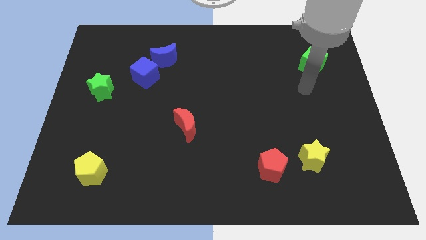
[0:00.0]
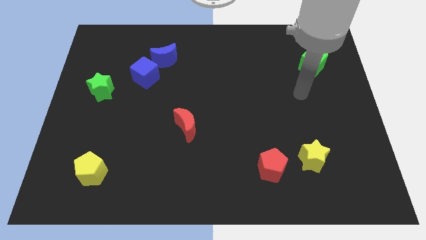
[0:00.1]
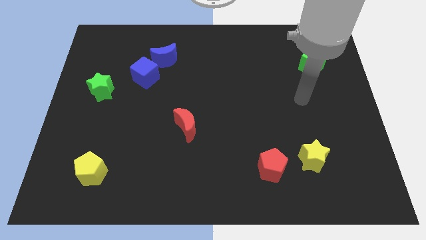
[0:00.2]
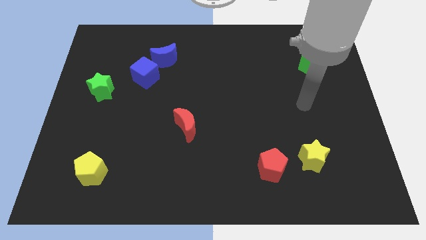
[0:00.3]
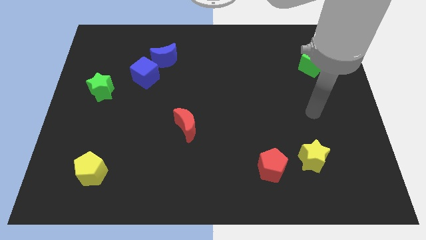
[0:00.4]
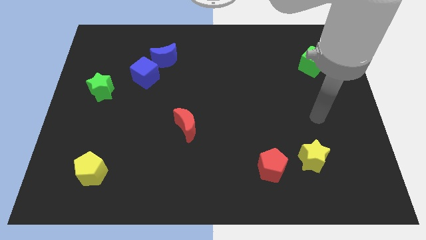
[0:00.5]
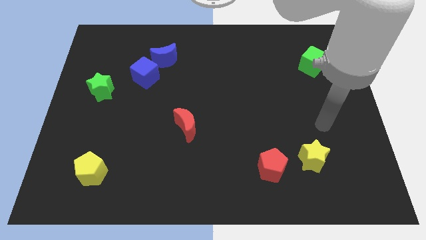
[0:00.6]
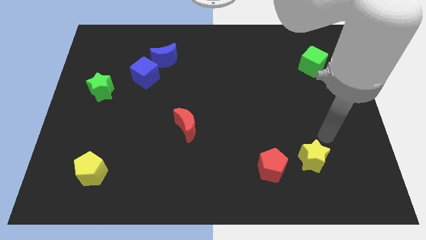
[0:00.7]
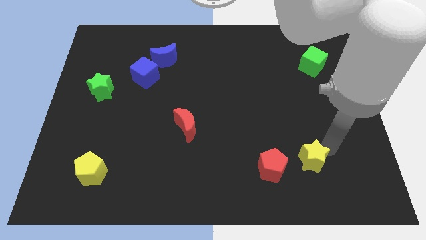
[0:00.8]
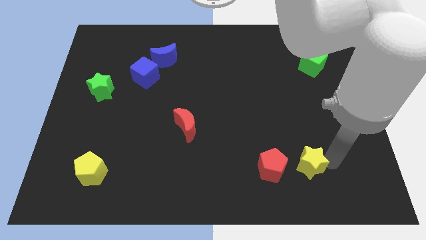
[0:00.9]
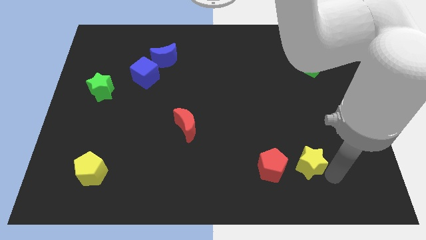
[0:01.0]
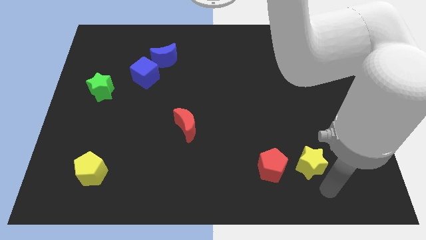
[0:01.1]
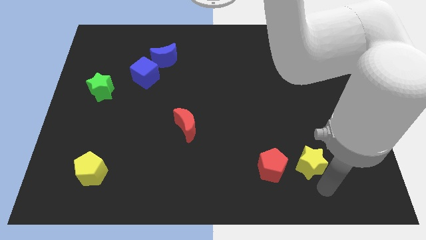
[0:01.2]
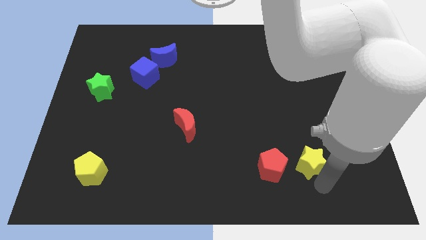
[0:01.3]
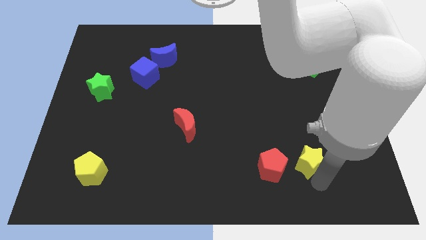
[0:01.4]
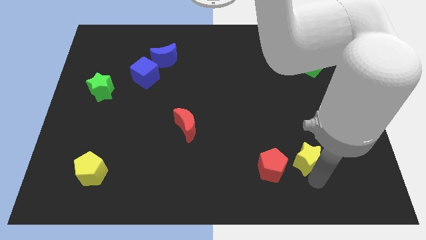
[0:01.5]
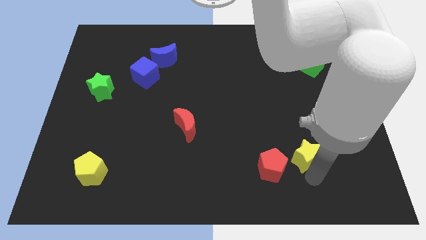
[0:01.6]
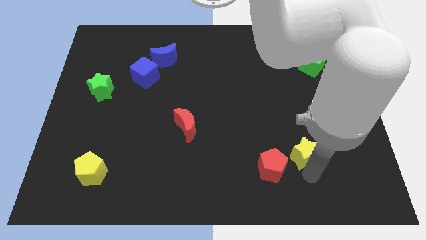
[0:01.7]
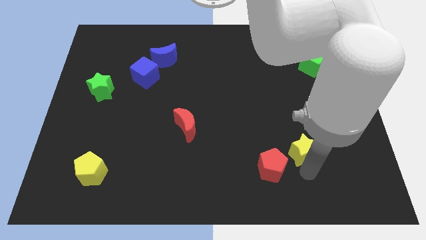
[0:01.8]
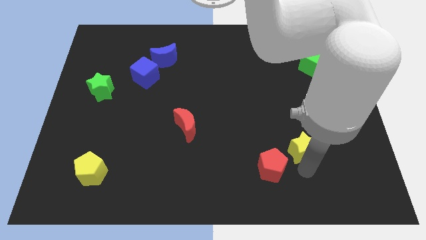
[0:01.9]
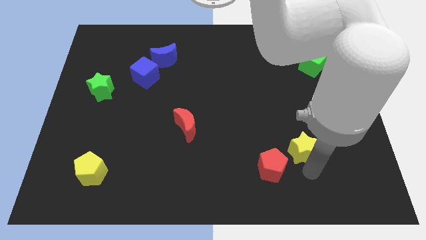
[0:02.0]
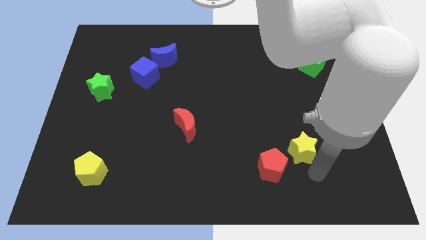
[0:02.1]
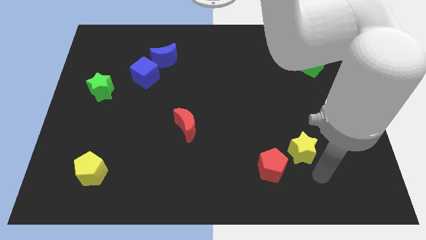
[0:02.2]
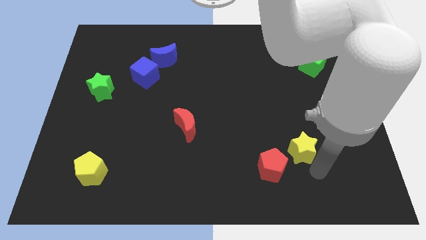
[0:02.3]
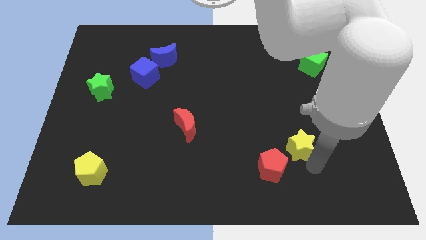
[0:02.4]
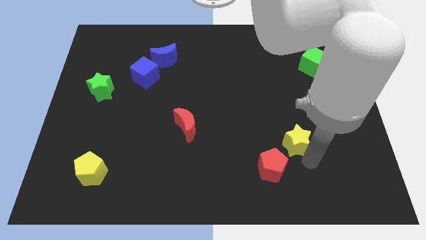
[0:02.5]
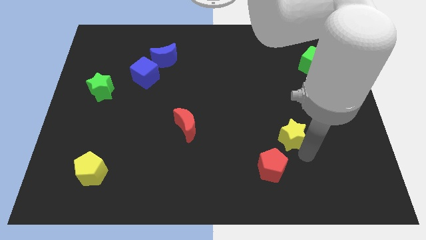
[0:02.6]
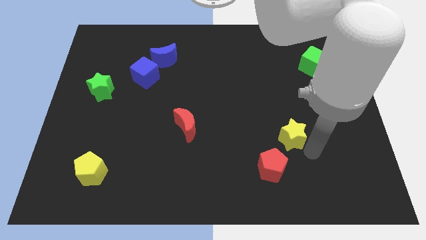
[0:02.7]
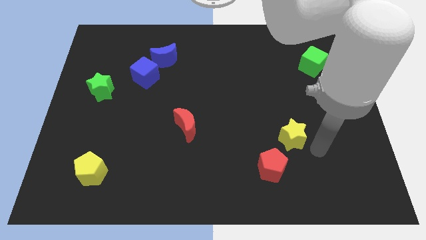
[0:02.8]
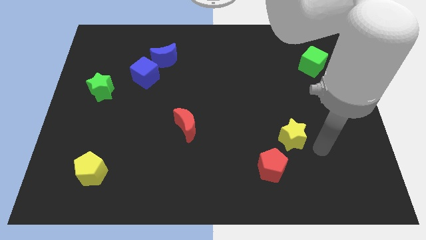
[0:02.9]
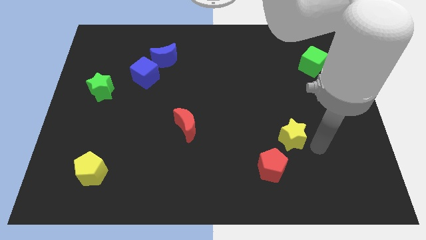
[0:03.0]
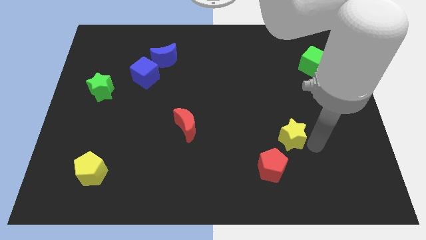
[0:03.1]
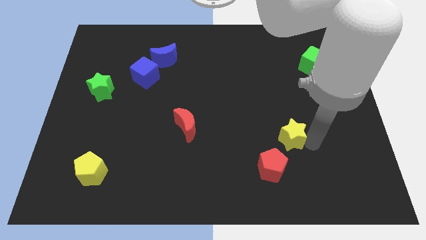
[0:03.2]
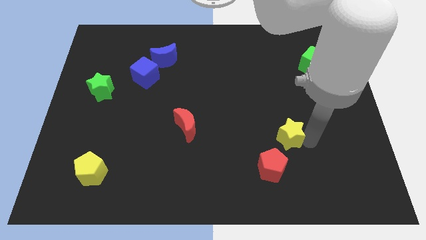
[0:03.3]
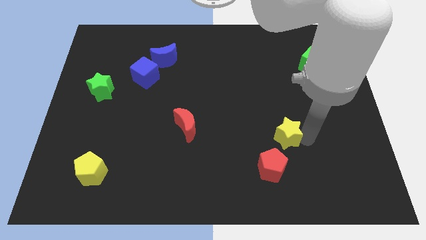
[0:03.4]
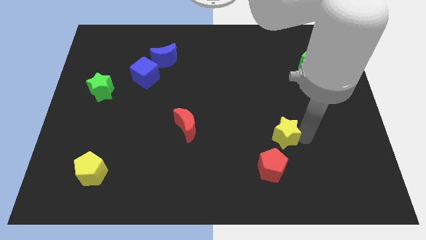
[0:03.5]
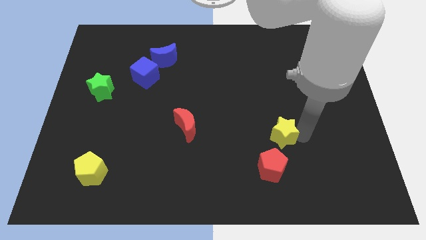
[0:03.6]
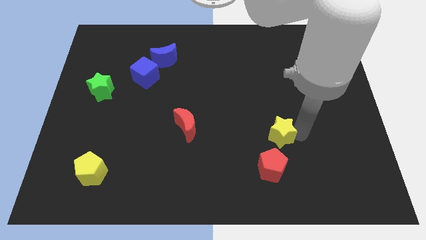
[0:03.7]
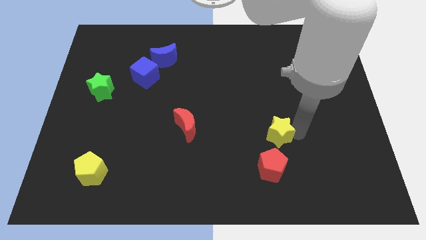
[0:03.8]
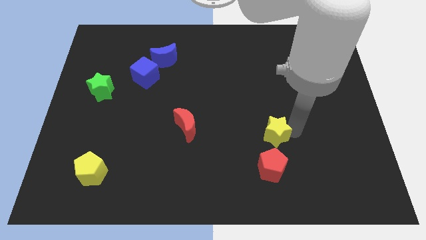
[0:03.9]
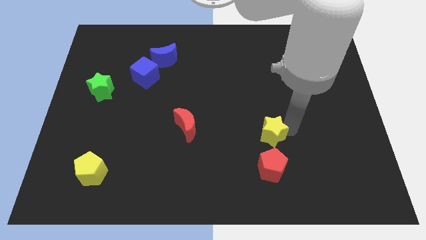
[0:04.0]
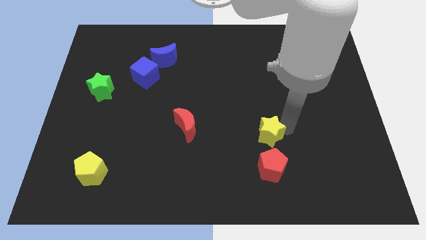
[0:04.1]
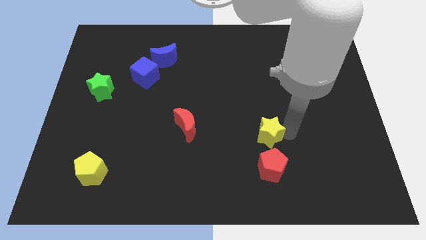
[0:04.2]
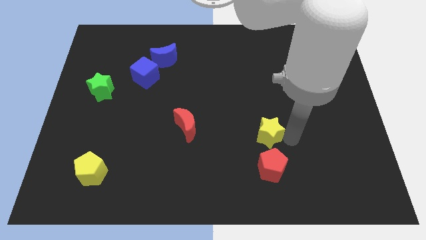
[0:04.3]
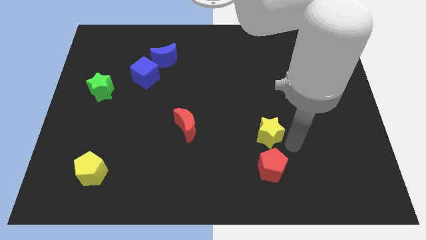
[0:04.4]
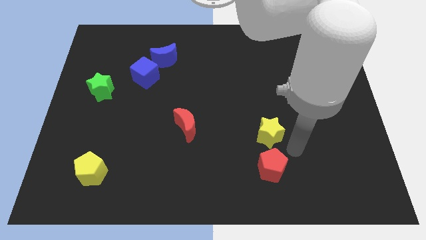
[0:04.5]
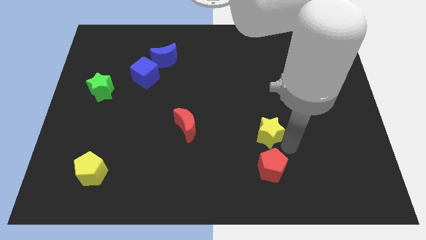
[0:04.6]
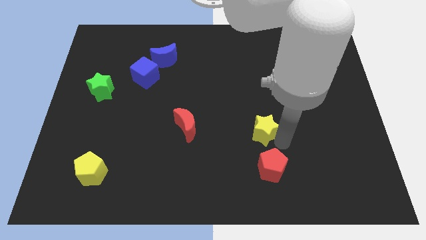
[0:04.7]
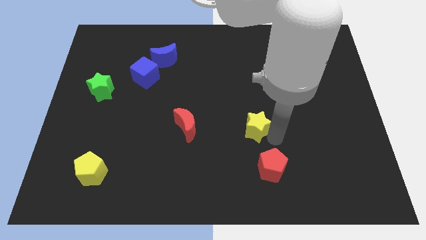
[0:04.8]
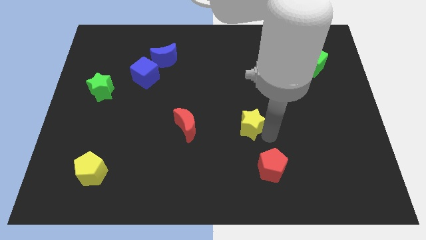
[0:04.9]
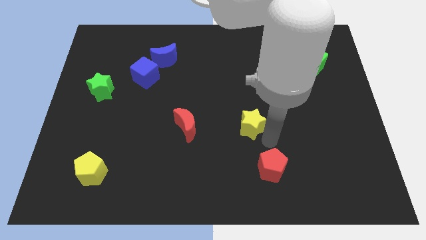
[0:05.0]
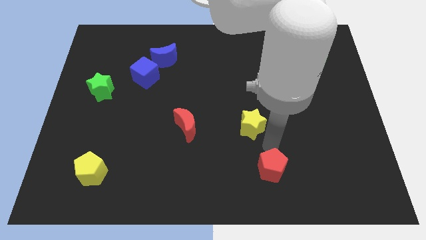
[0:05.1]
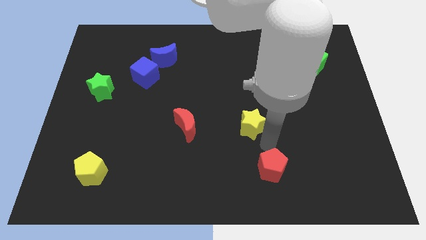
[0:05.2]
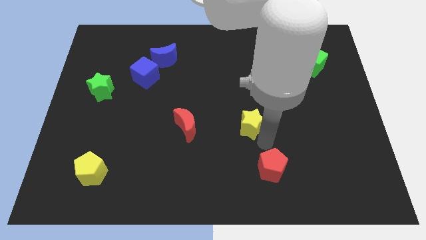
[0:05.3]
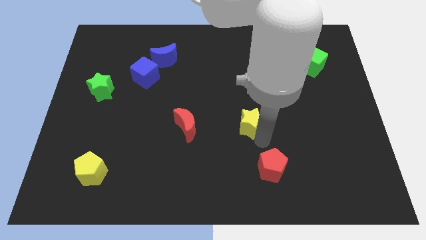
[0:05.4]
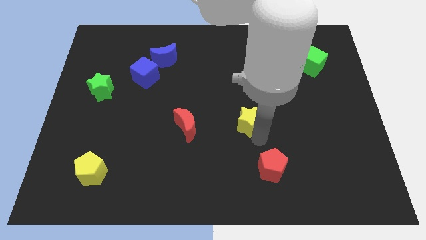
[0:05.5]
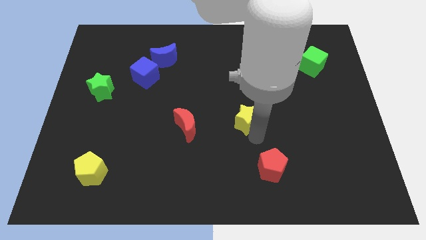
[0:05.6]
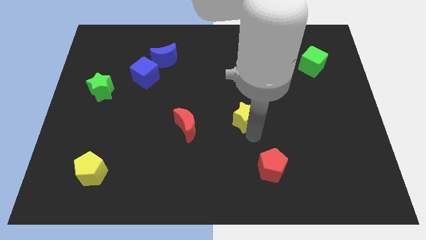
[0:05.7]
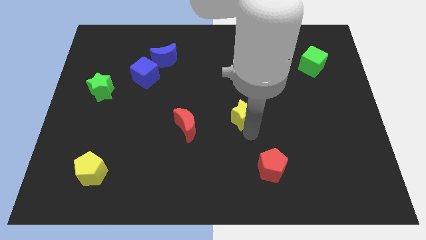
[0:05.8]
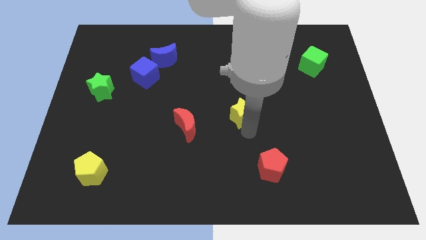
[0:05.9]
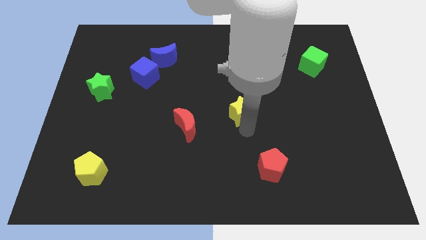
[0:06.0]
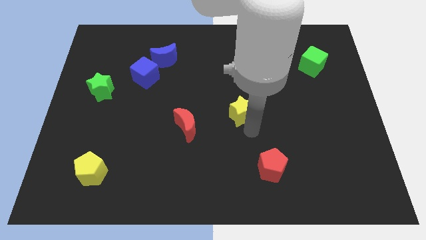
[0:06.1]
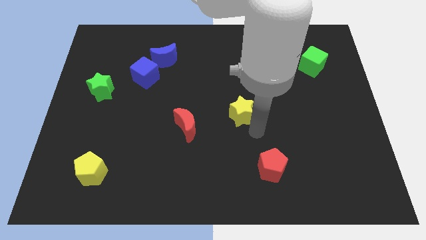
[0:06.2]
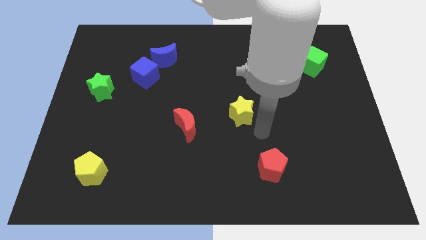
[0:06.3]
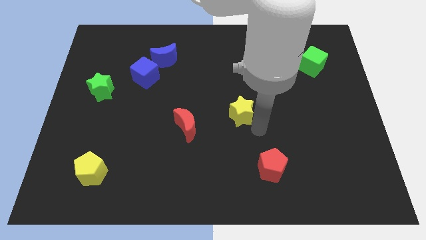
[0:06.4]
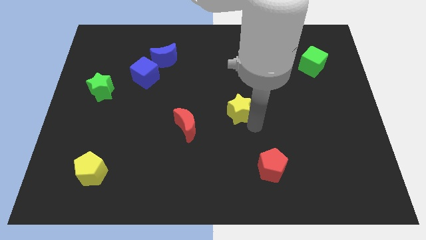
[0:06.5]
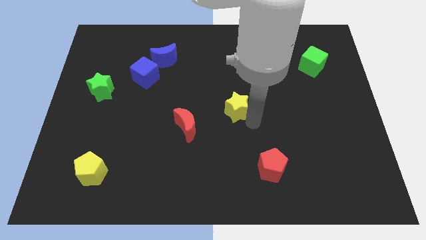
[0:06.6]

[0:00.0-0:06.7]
slide the yellow star up and left

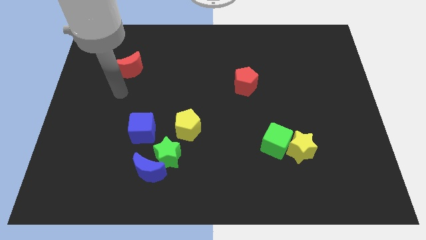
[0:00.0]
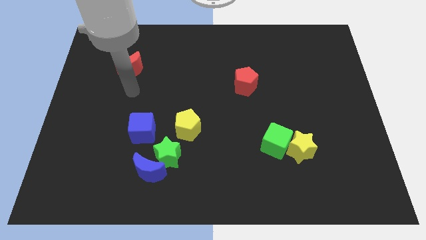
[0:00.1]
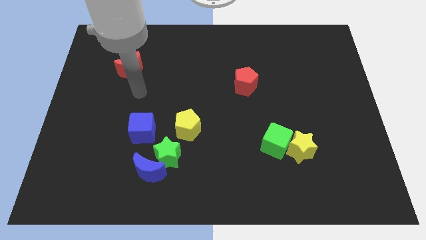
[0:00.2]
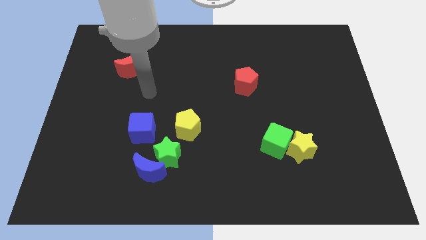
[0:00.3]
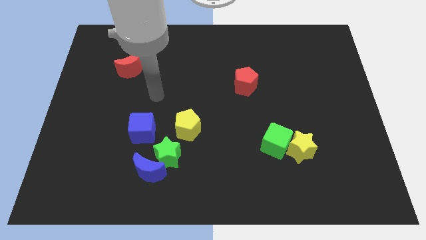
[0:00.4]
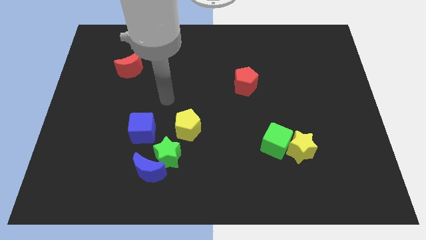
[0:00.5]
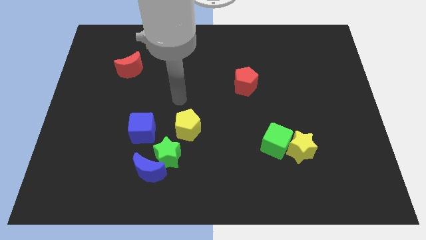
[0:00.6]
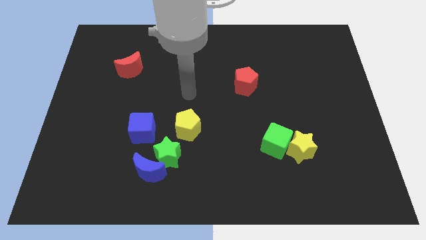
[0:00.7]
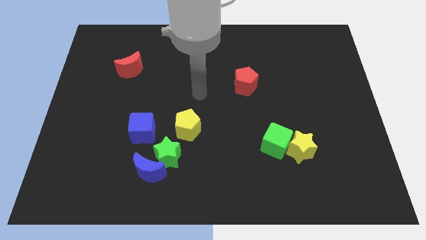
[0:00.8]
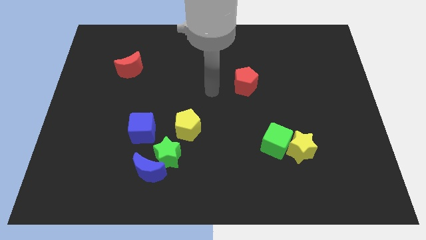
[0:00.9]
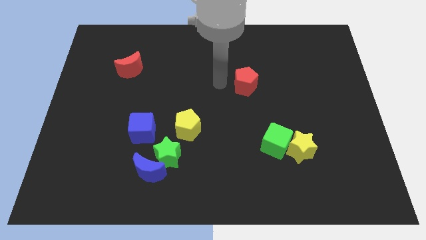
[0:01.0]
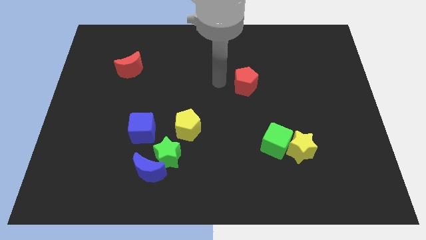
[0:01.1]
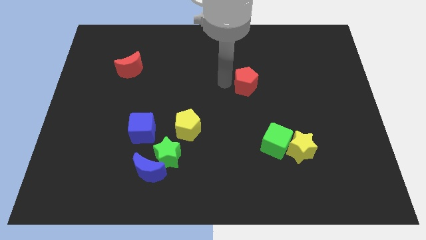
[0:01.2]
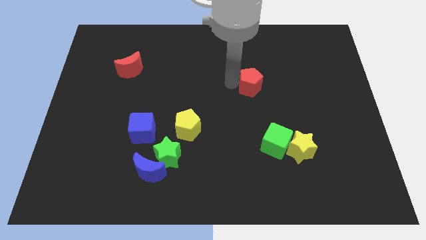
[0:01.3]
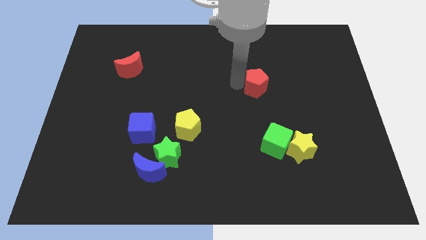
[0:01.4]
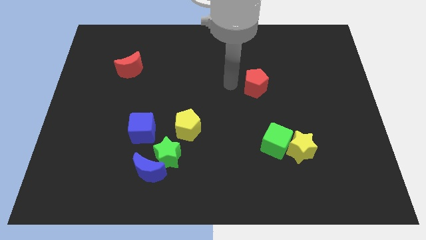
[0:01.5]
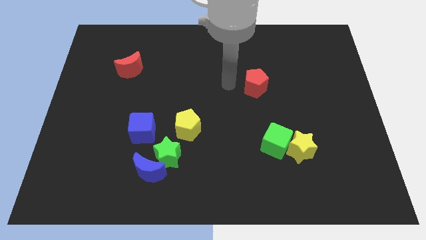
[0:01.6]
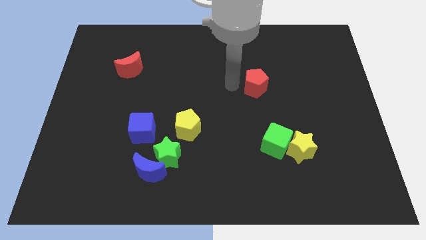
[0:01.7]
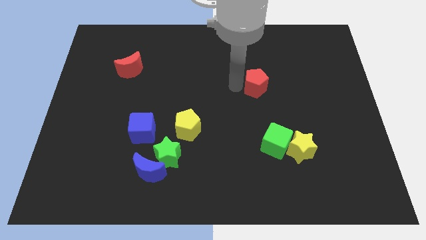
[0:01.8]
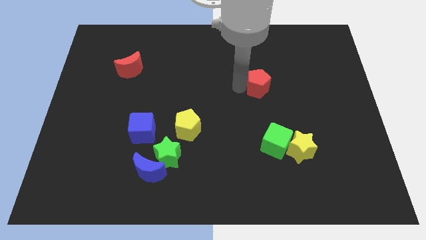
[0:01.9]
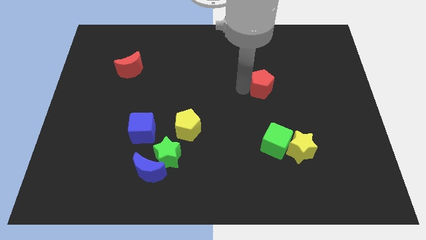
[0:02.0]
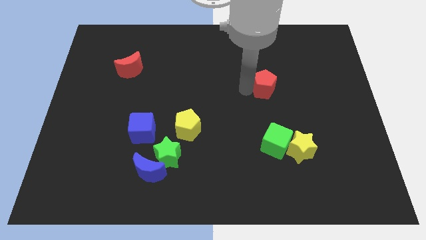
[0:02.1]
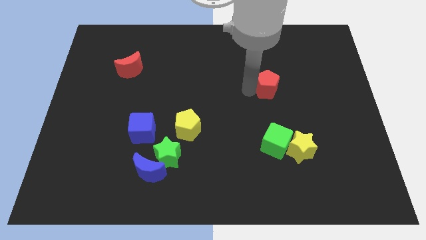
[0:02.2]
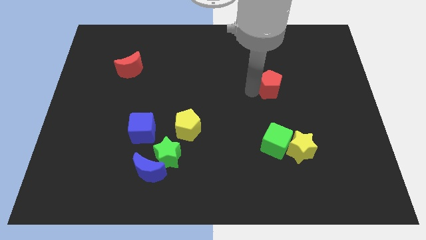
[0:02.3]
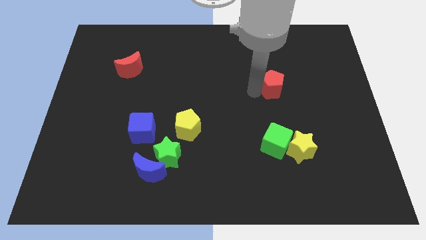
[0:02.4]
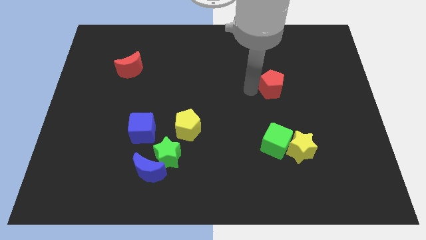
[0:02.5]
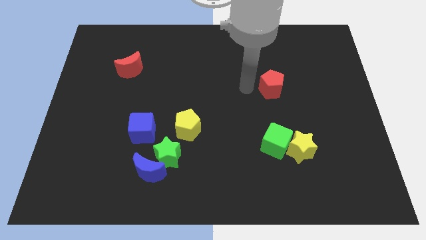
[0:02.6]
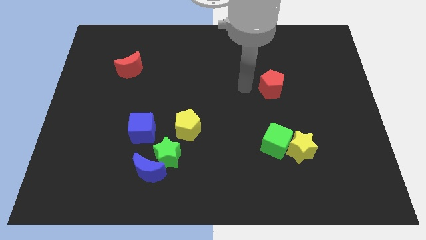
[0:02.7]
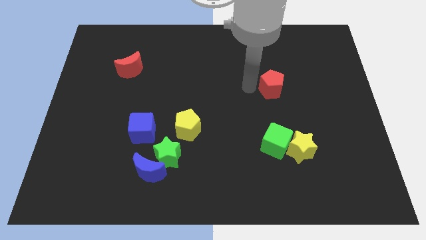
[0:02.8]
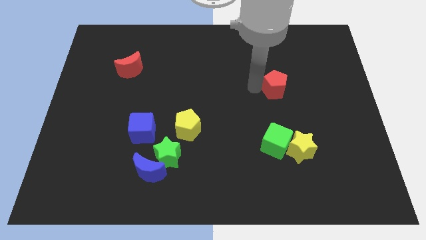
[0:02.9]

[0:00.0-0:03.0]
push the red pentagon slightly to the right
